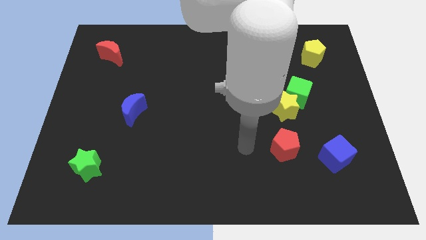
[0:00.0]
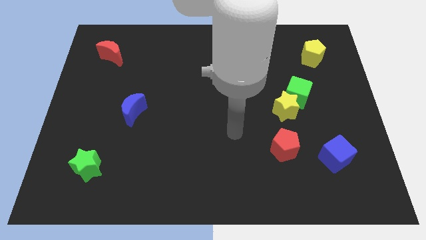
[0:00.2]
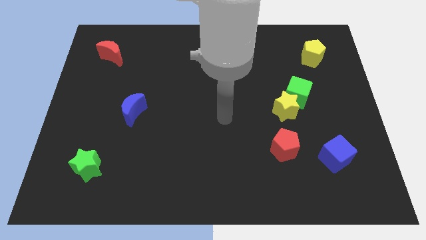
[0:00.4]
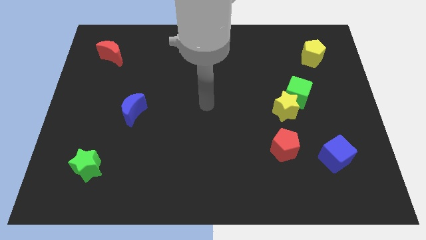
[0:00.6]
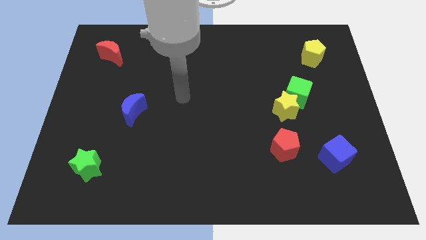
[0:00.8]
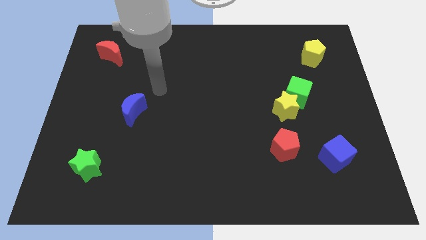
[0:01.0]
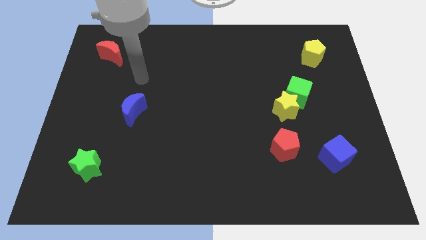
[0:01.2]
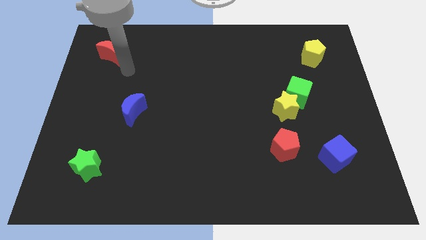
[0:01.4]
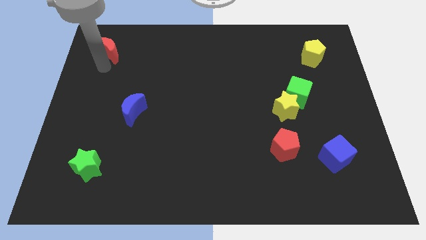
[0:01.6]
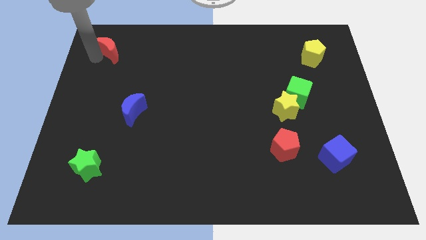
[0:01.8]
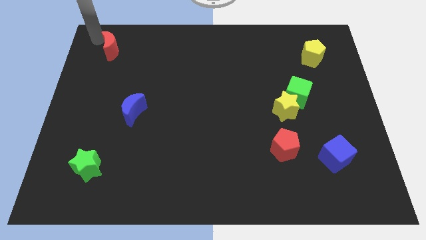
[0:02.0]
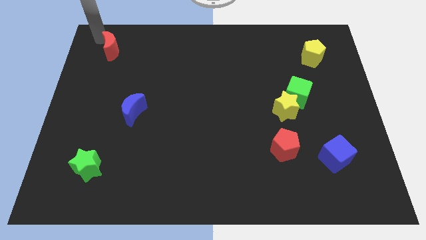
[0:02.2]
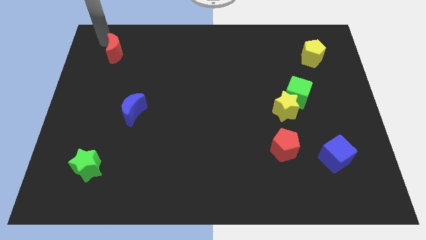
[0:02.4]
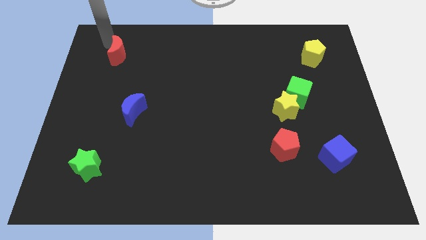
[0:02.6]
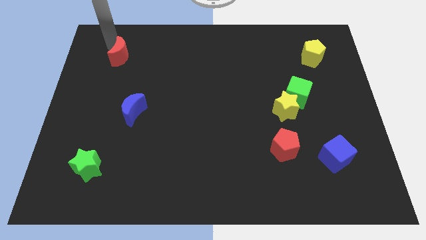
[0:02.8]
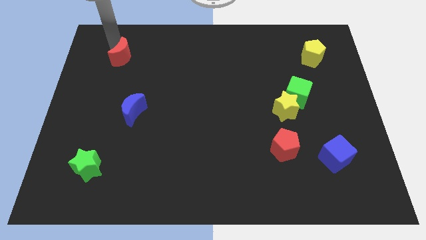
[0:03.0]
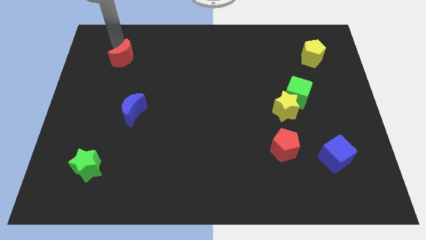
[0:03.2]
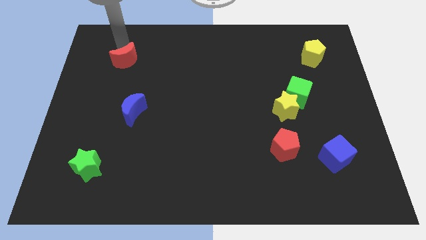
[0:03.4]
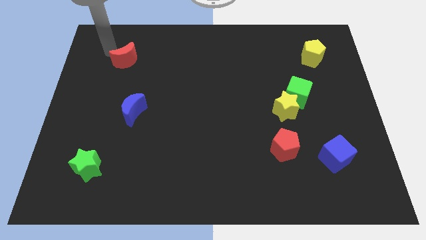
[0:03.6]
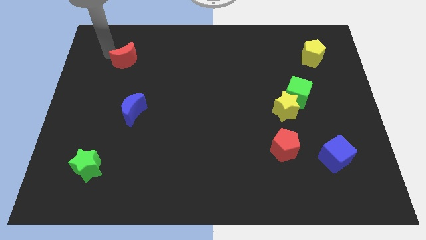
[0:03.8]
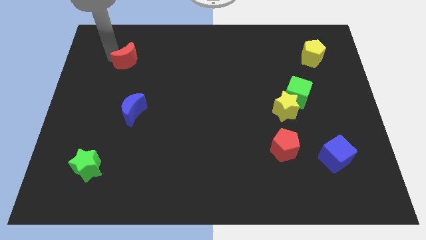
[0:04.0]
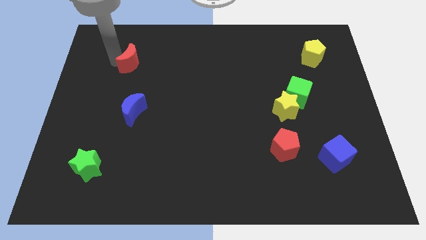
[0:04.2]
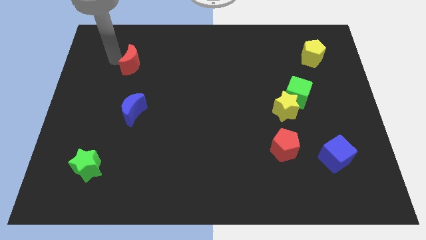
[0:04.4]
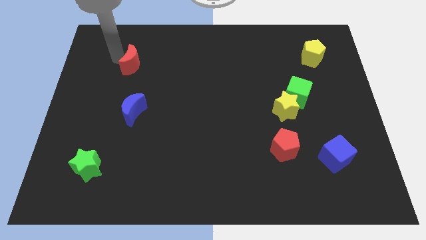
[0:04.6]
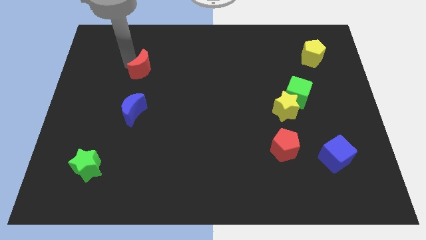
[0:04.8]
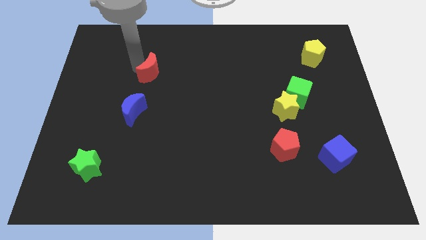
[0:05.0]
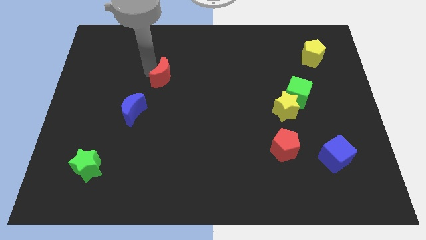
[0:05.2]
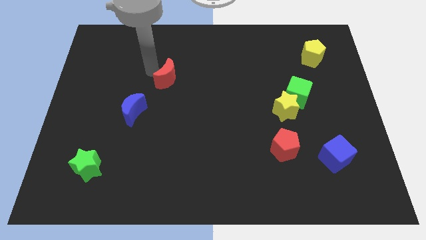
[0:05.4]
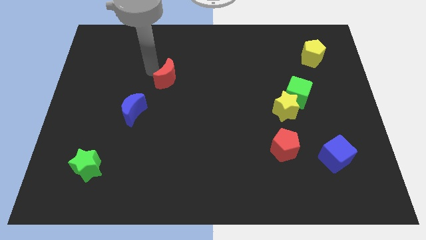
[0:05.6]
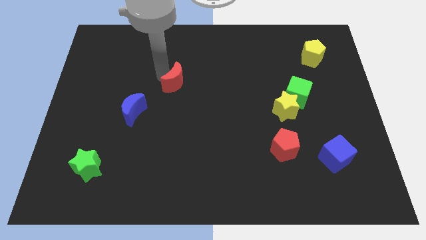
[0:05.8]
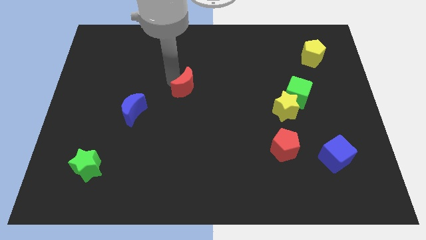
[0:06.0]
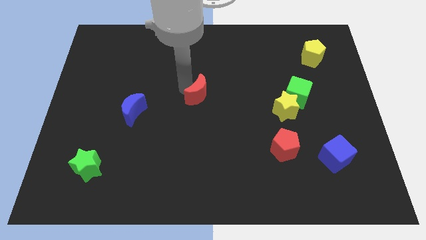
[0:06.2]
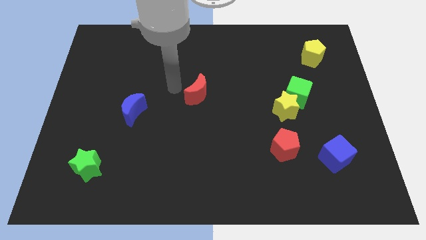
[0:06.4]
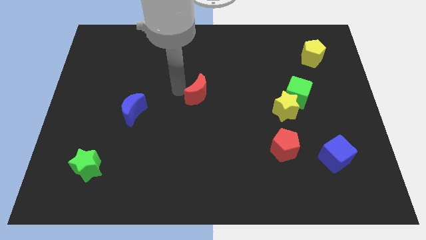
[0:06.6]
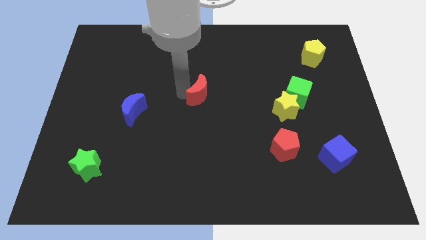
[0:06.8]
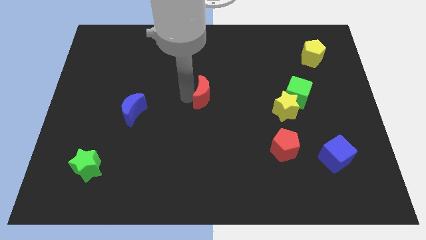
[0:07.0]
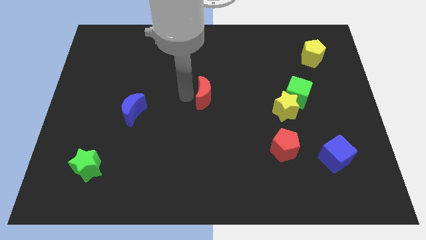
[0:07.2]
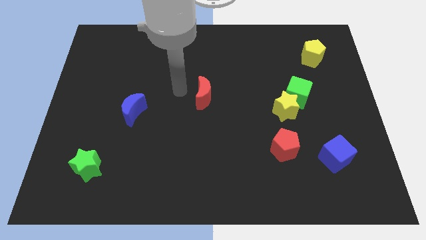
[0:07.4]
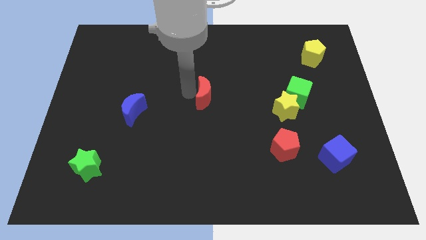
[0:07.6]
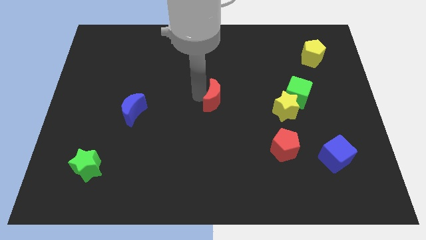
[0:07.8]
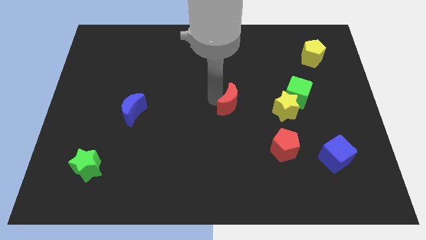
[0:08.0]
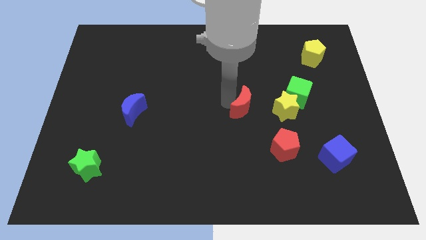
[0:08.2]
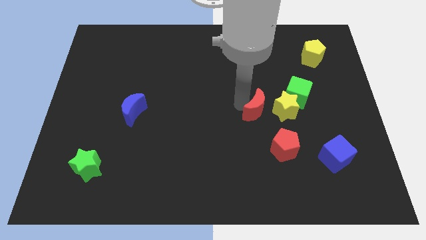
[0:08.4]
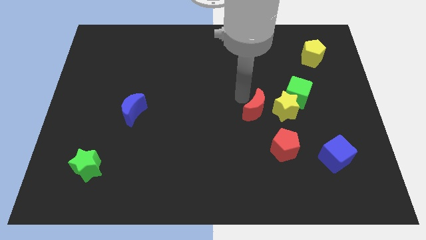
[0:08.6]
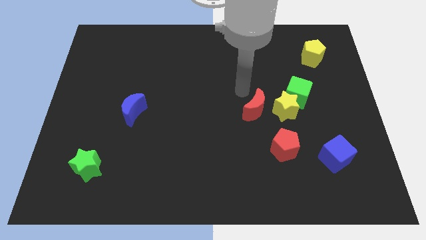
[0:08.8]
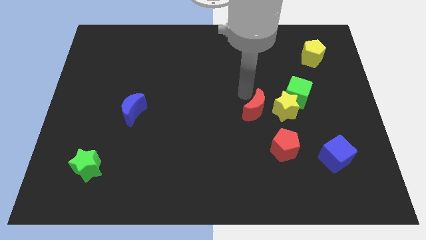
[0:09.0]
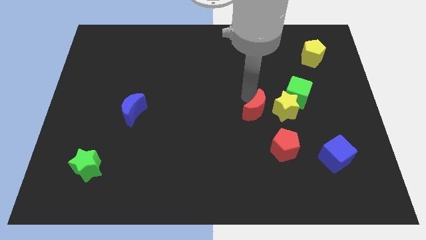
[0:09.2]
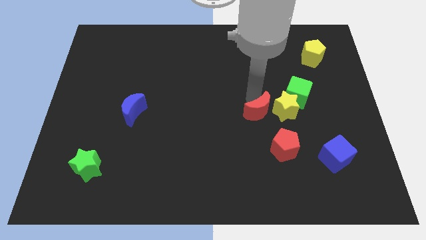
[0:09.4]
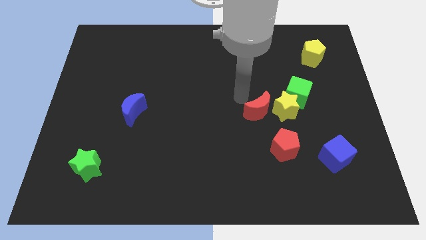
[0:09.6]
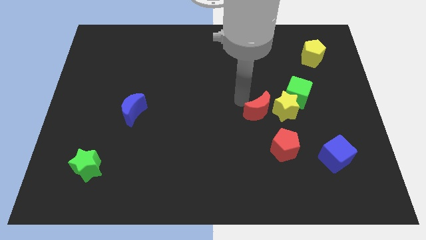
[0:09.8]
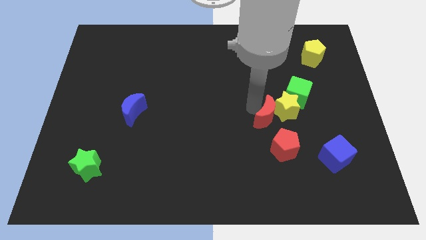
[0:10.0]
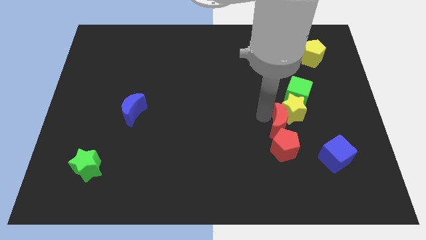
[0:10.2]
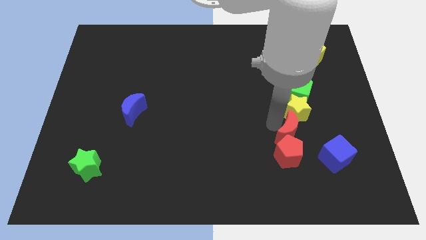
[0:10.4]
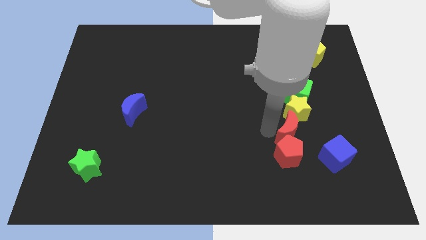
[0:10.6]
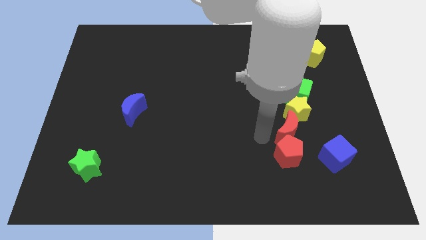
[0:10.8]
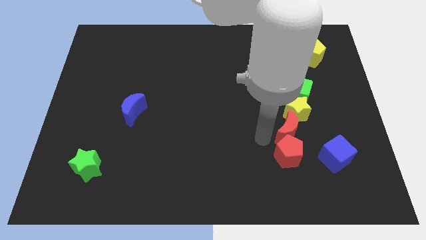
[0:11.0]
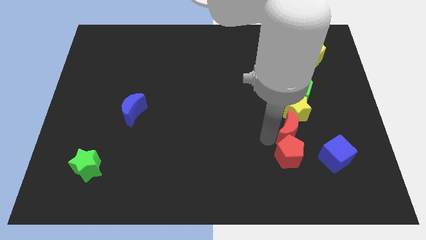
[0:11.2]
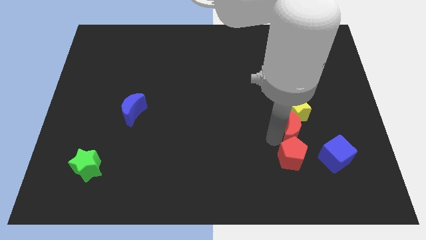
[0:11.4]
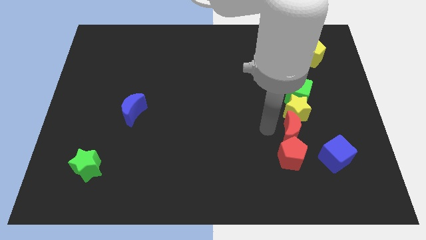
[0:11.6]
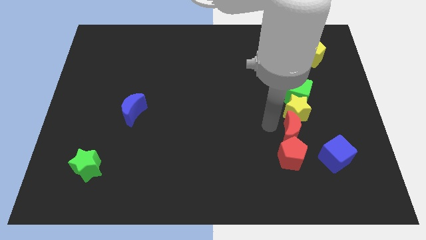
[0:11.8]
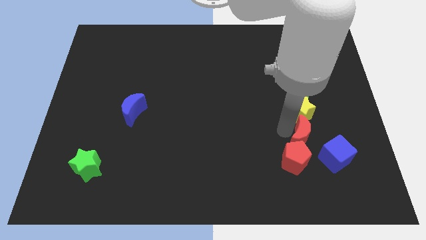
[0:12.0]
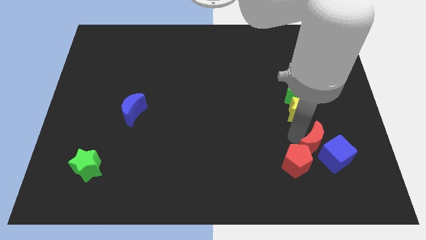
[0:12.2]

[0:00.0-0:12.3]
push the red moon to the blue cube

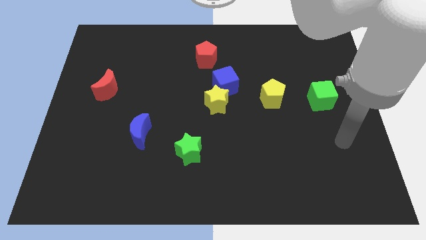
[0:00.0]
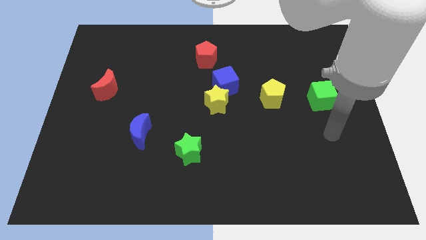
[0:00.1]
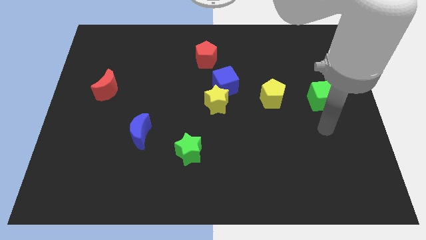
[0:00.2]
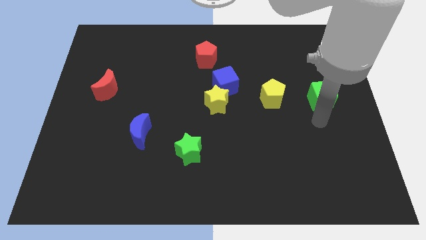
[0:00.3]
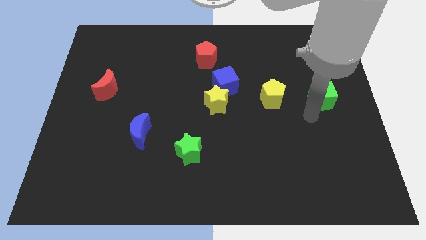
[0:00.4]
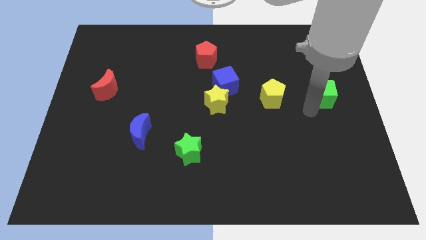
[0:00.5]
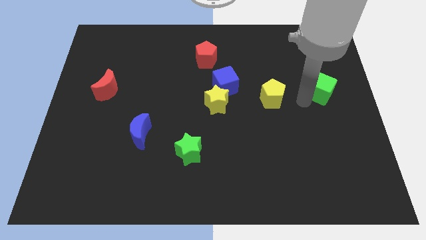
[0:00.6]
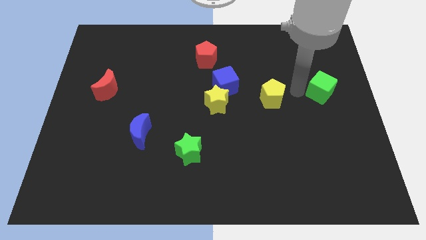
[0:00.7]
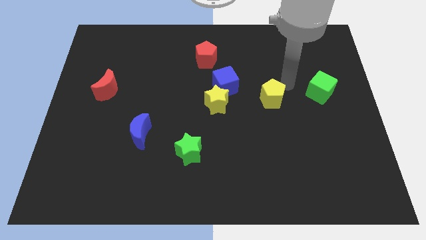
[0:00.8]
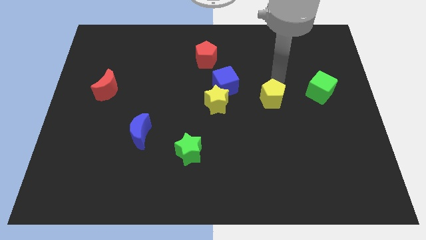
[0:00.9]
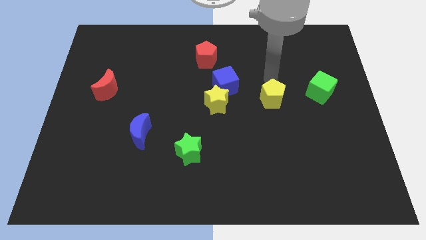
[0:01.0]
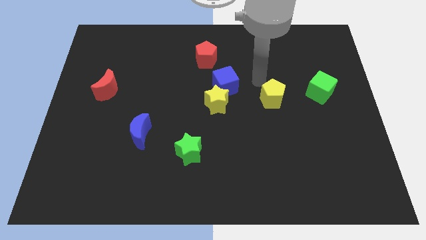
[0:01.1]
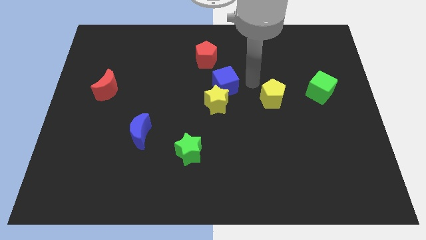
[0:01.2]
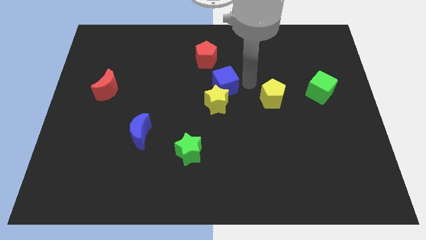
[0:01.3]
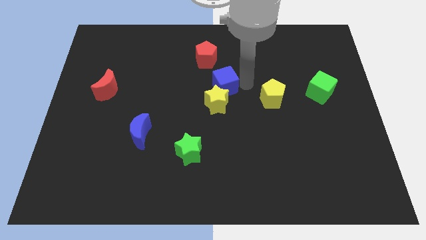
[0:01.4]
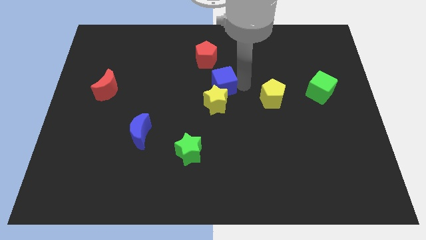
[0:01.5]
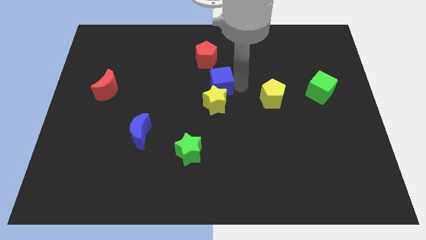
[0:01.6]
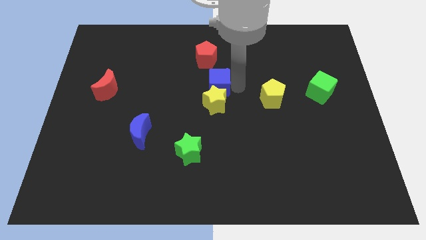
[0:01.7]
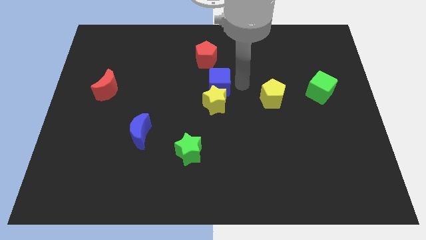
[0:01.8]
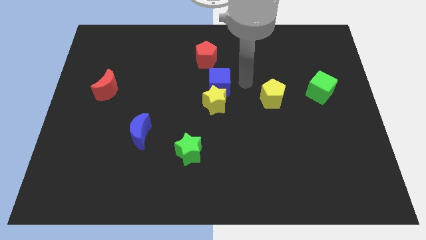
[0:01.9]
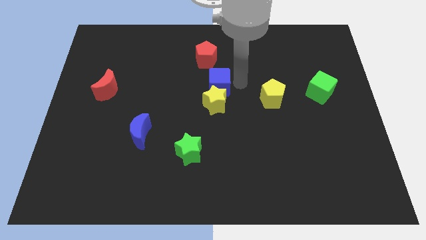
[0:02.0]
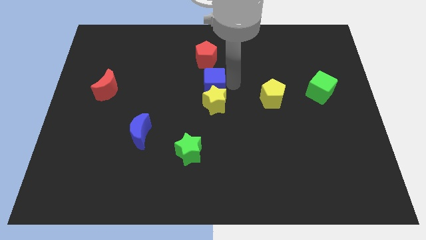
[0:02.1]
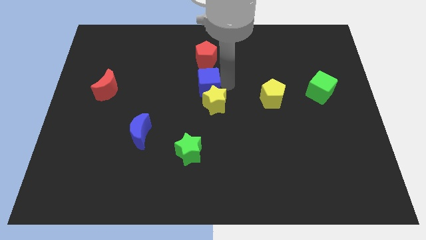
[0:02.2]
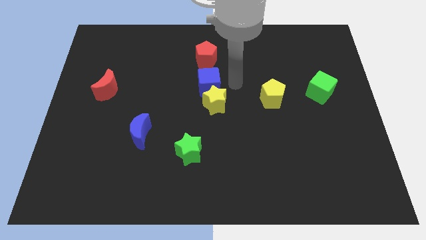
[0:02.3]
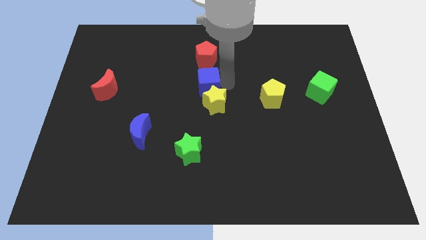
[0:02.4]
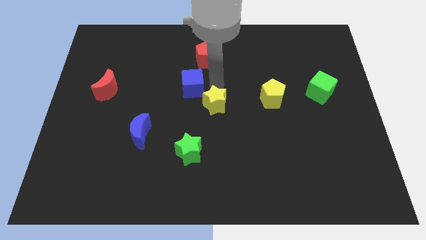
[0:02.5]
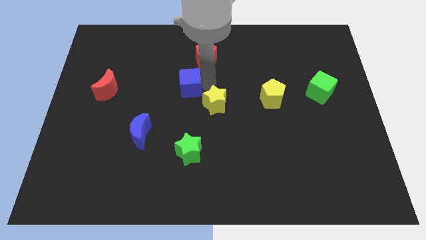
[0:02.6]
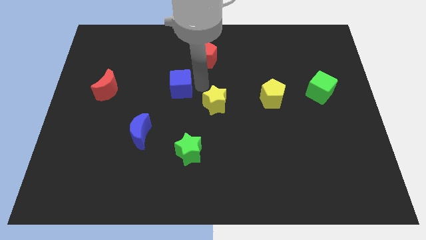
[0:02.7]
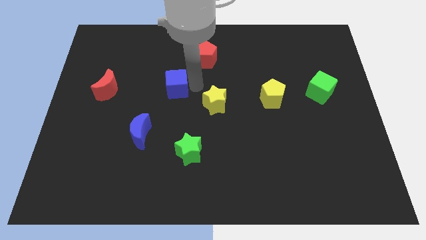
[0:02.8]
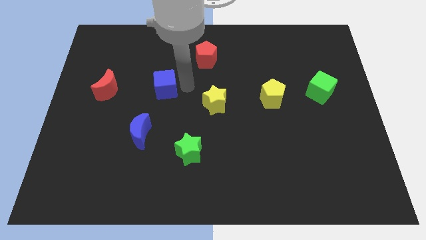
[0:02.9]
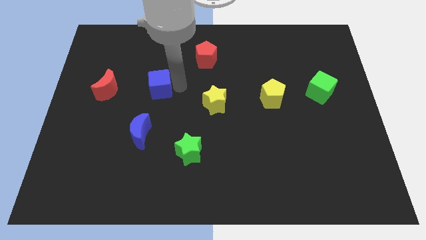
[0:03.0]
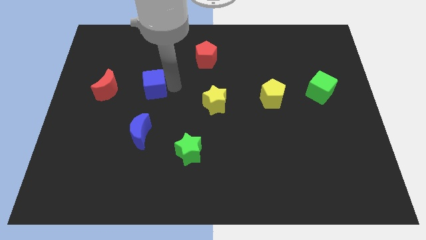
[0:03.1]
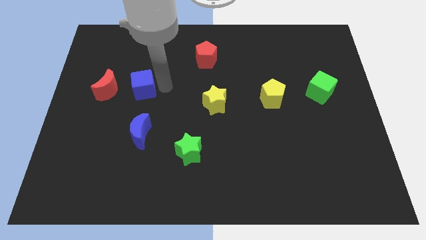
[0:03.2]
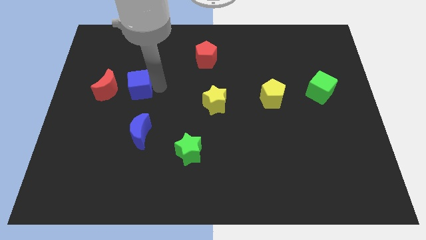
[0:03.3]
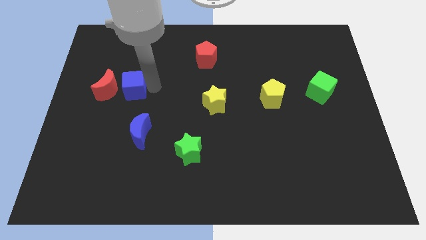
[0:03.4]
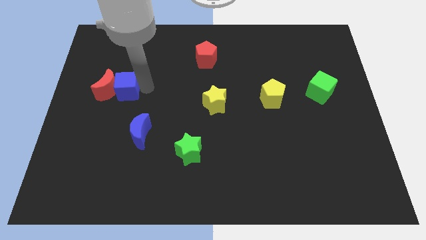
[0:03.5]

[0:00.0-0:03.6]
push the blue cube towards the red moon
